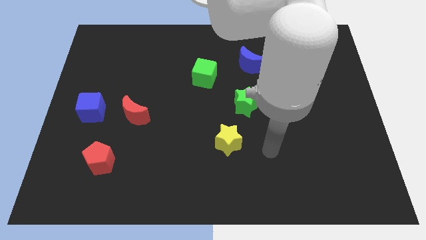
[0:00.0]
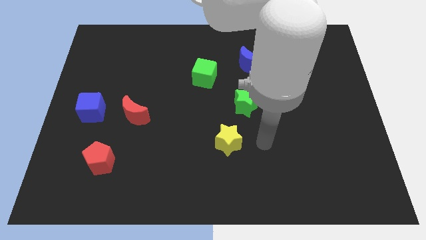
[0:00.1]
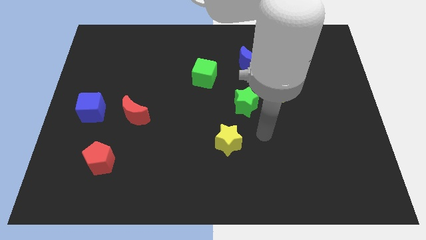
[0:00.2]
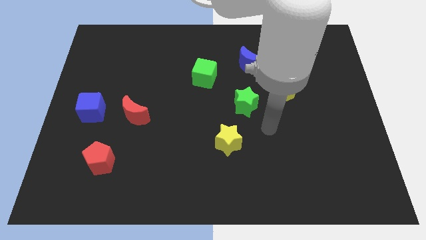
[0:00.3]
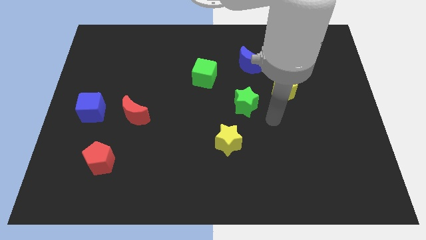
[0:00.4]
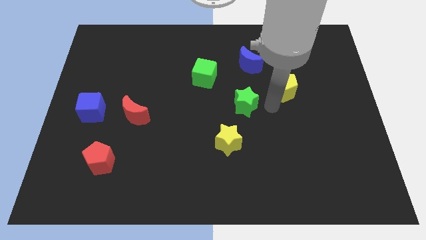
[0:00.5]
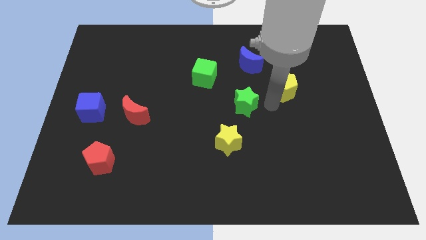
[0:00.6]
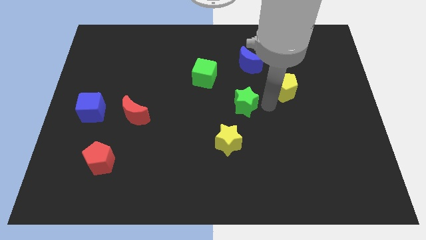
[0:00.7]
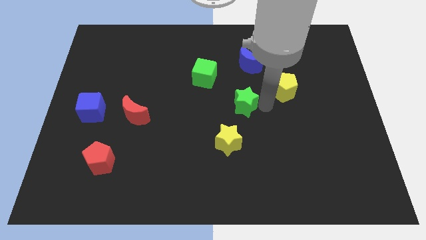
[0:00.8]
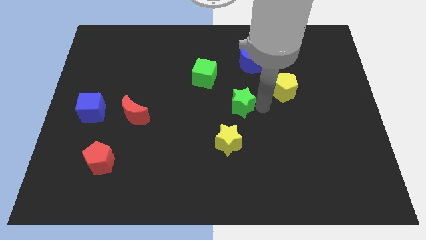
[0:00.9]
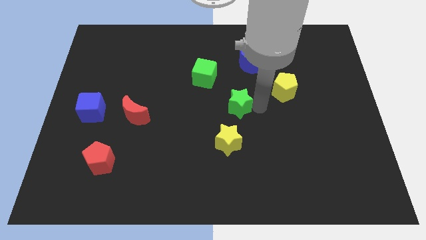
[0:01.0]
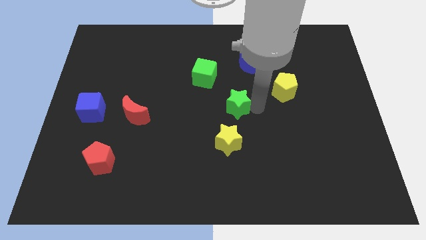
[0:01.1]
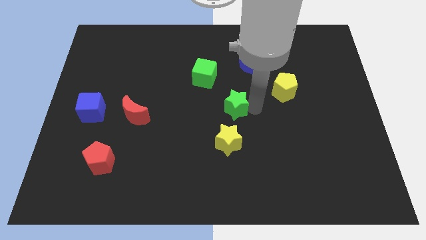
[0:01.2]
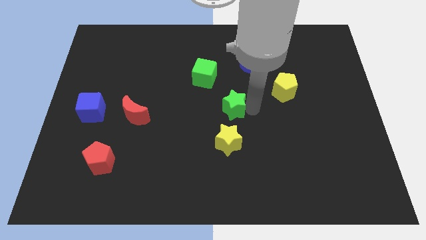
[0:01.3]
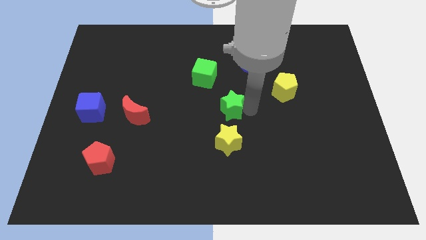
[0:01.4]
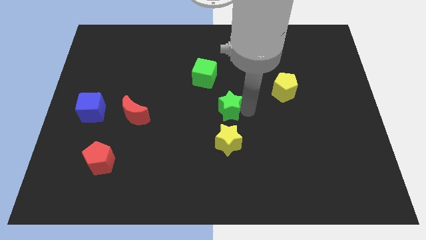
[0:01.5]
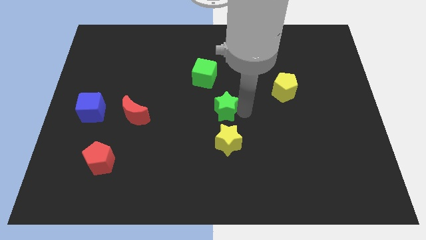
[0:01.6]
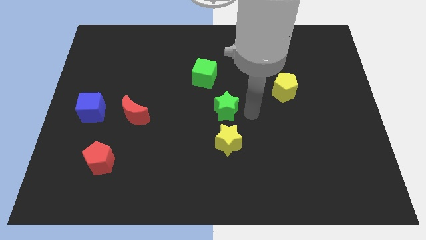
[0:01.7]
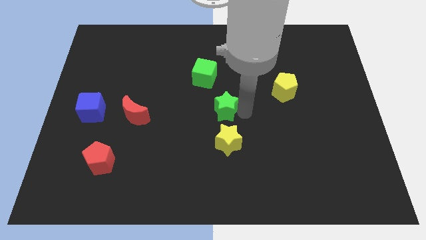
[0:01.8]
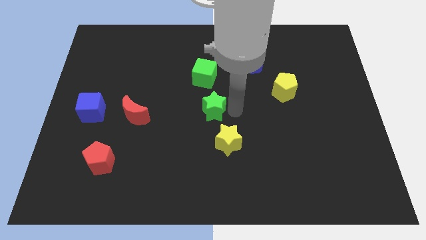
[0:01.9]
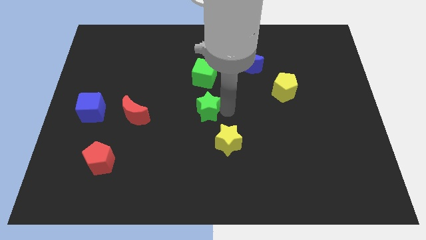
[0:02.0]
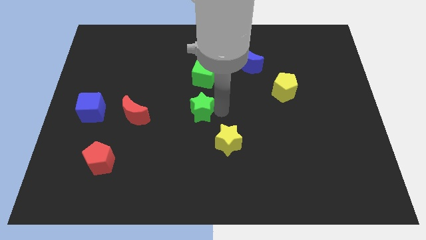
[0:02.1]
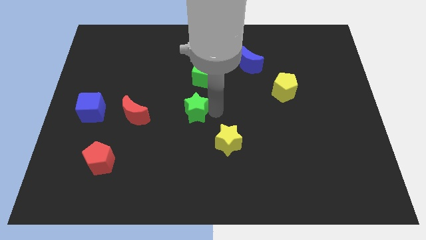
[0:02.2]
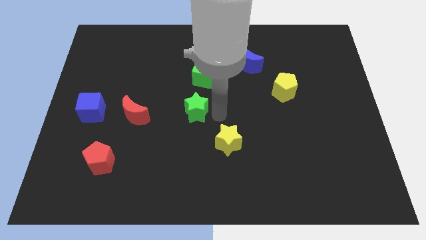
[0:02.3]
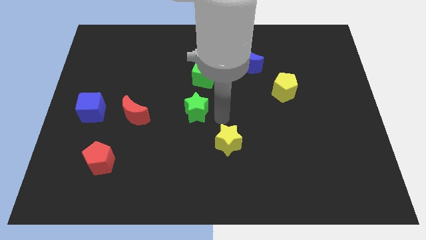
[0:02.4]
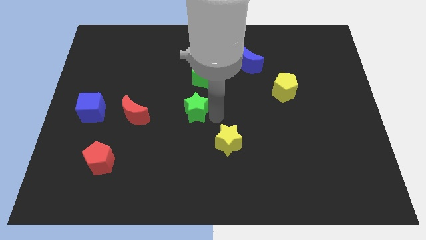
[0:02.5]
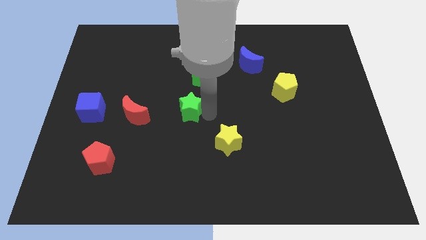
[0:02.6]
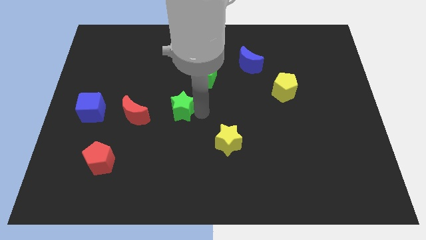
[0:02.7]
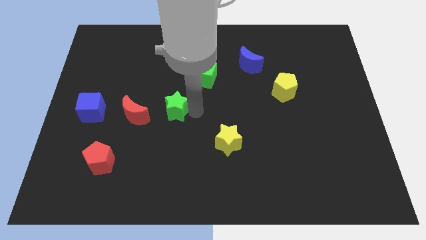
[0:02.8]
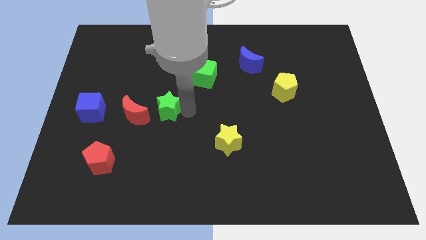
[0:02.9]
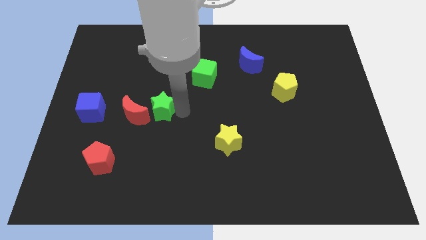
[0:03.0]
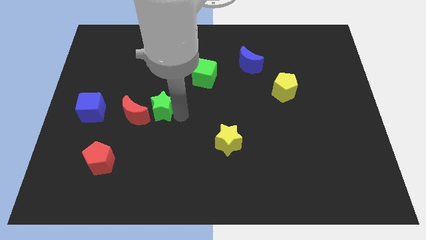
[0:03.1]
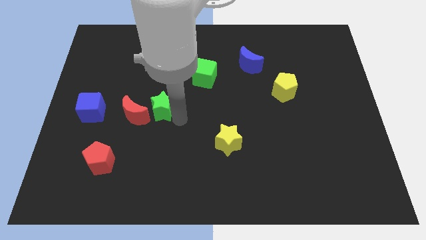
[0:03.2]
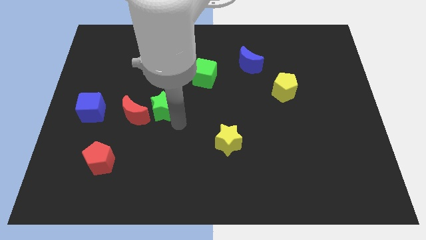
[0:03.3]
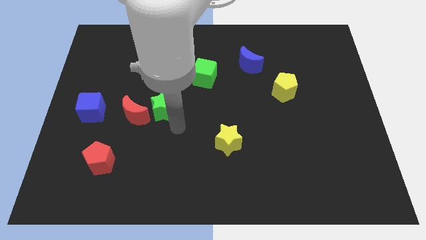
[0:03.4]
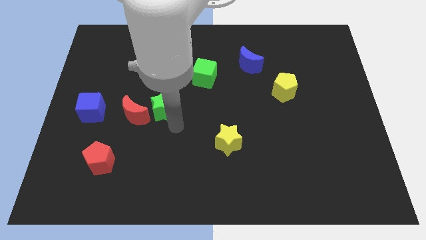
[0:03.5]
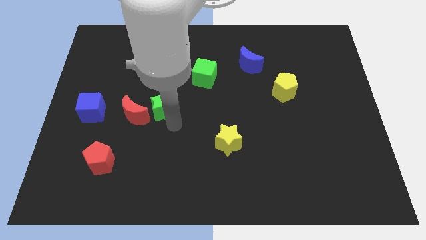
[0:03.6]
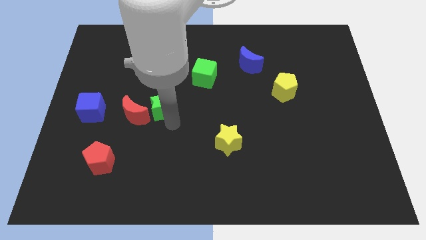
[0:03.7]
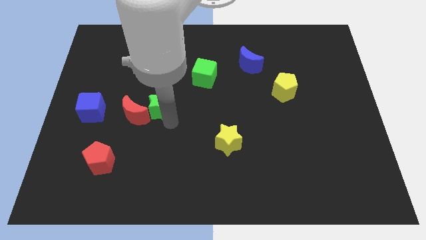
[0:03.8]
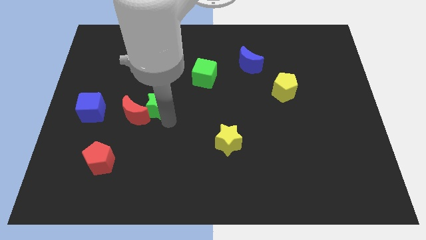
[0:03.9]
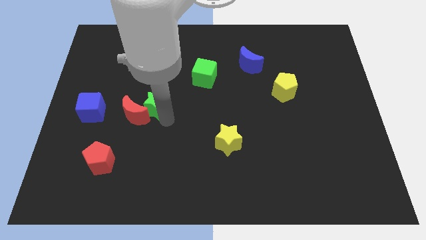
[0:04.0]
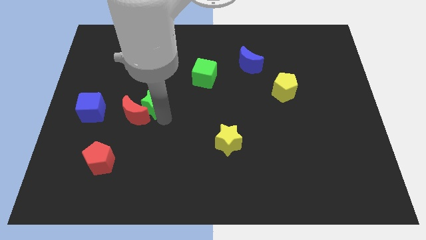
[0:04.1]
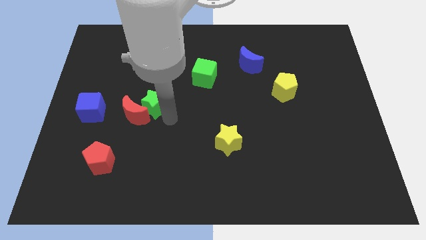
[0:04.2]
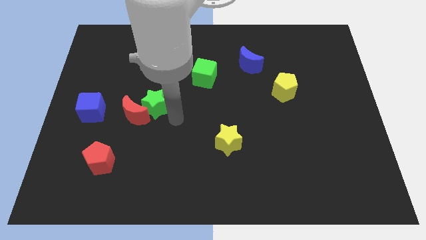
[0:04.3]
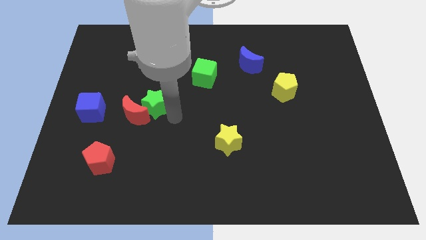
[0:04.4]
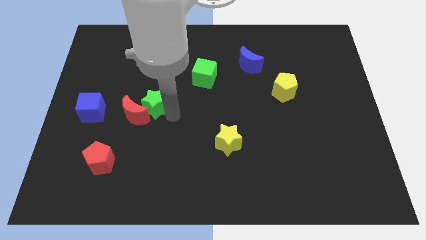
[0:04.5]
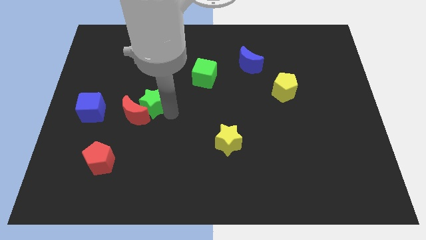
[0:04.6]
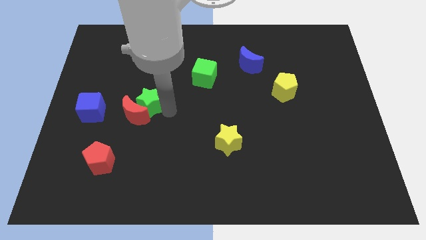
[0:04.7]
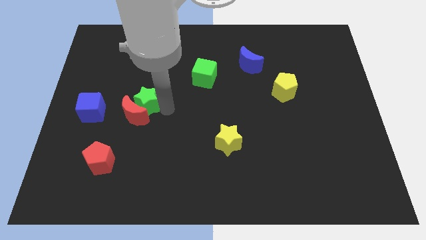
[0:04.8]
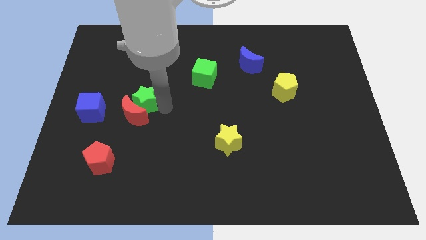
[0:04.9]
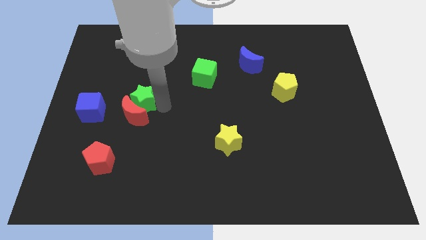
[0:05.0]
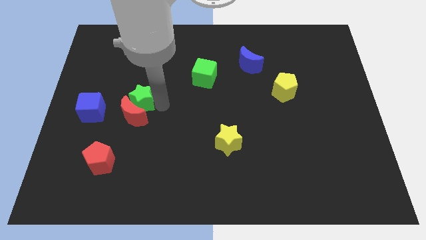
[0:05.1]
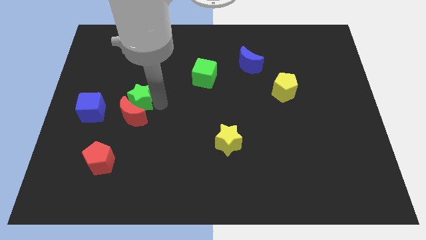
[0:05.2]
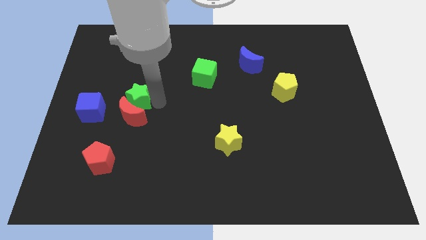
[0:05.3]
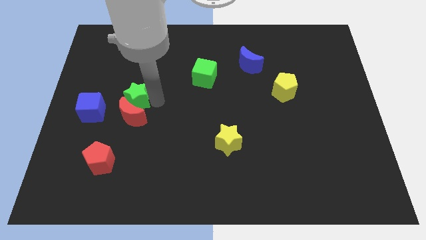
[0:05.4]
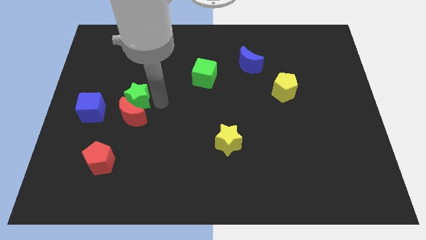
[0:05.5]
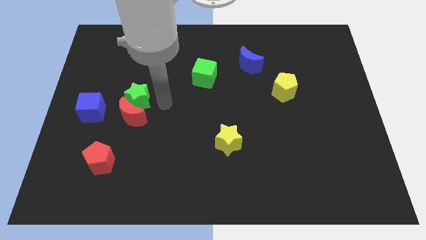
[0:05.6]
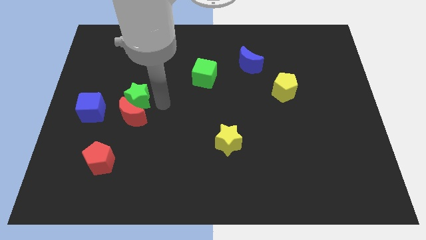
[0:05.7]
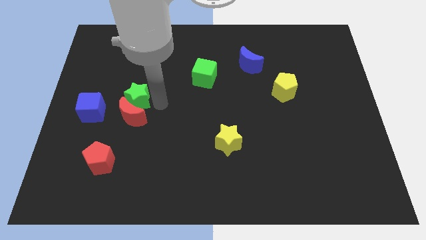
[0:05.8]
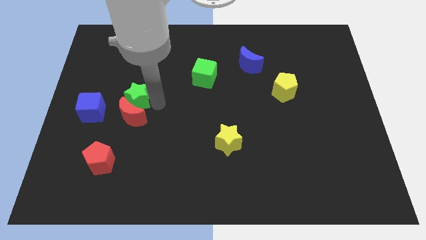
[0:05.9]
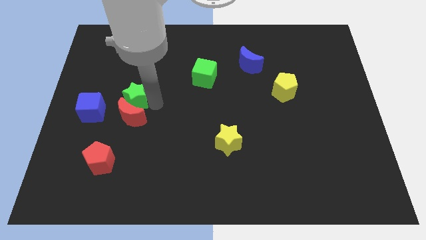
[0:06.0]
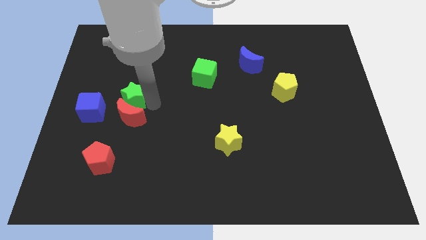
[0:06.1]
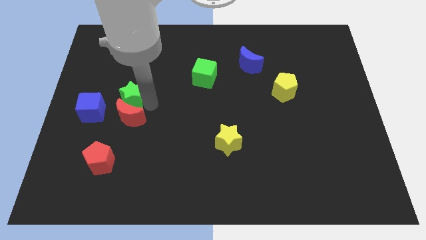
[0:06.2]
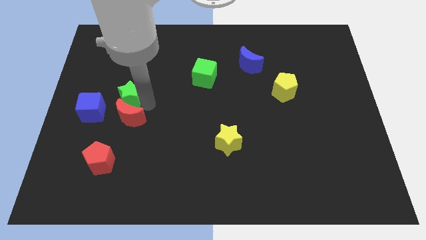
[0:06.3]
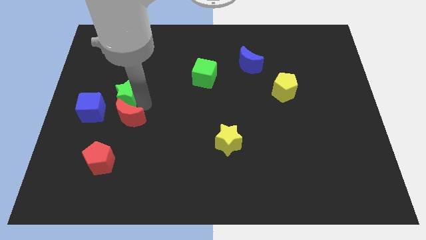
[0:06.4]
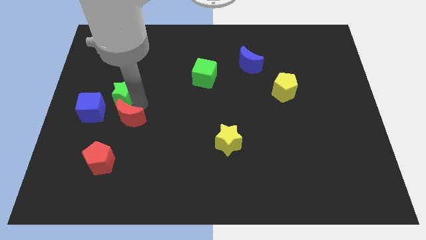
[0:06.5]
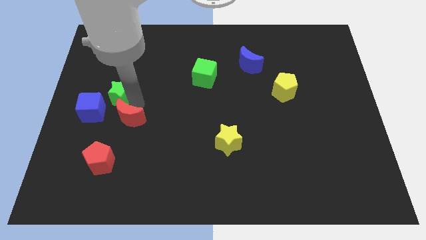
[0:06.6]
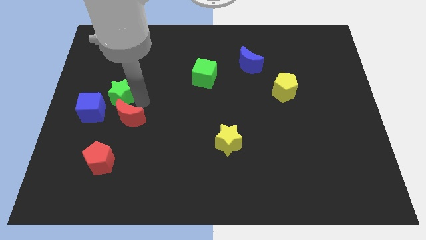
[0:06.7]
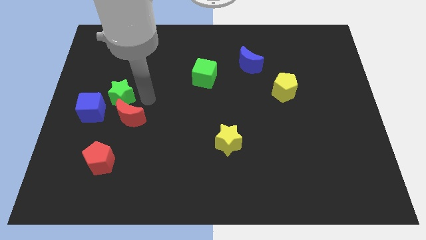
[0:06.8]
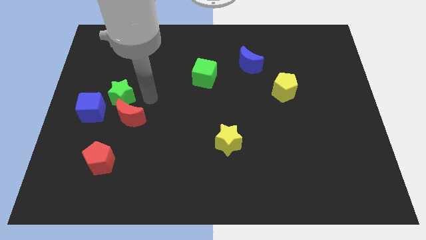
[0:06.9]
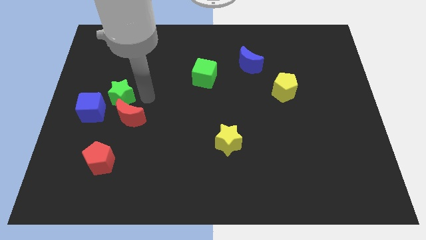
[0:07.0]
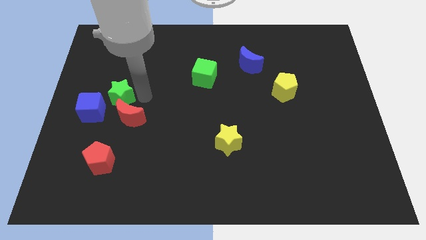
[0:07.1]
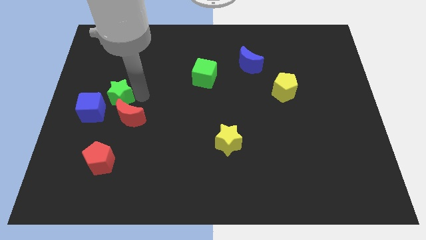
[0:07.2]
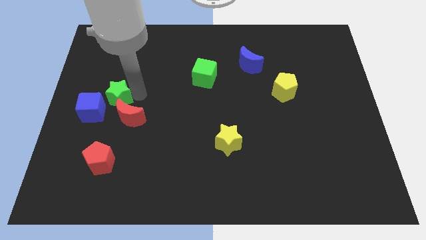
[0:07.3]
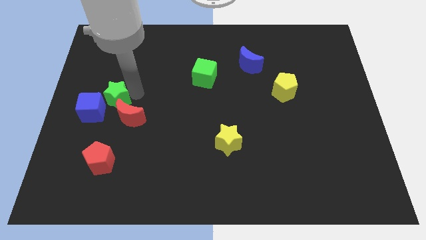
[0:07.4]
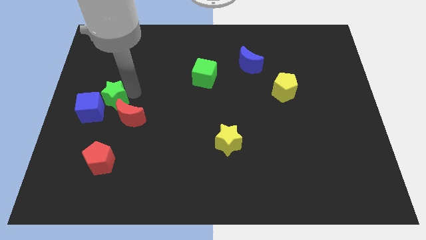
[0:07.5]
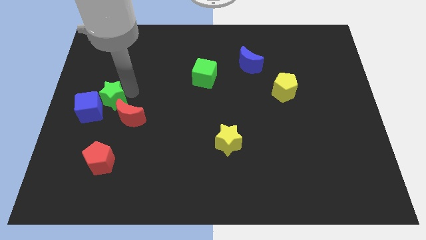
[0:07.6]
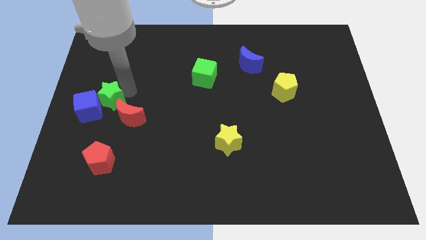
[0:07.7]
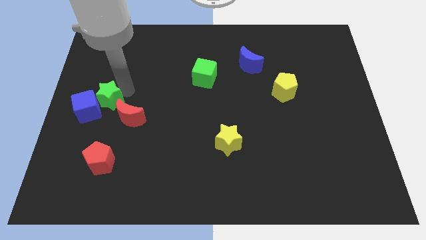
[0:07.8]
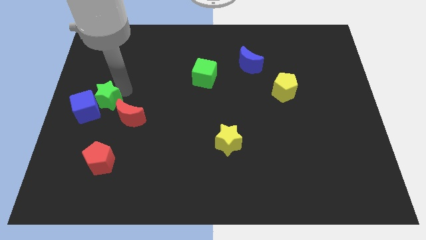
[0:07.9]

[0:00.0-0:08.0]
push the green star to the left side of the board

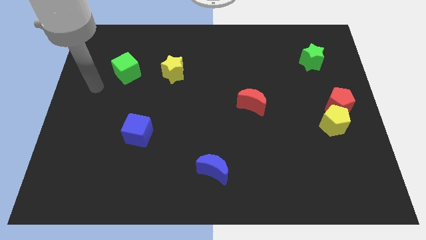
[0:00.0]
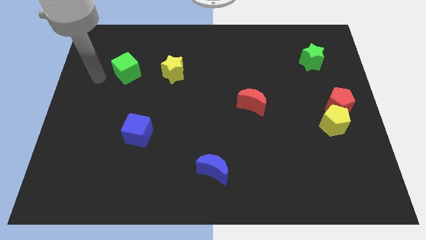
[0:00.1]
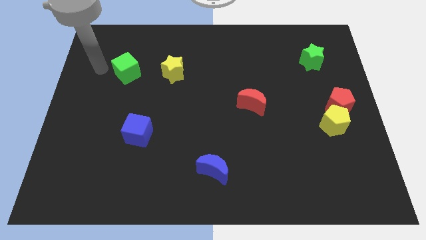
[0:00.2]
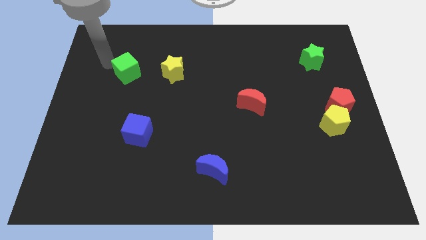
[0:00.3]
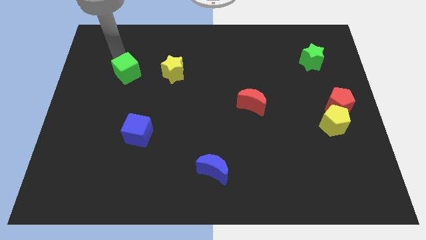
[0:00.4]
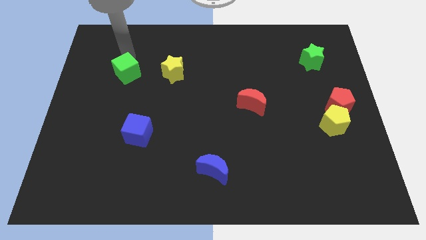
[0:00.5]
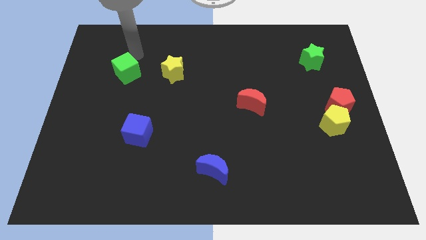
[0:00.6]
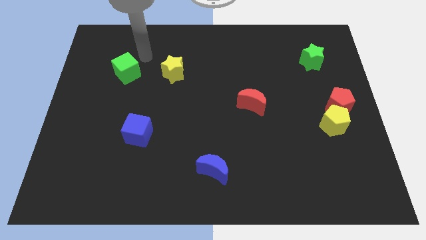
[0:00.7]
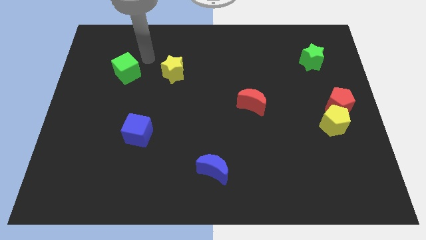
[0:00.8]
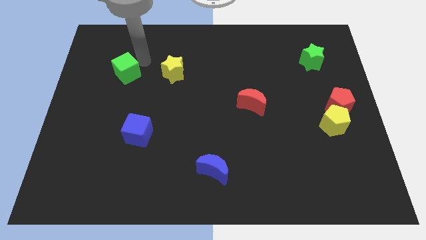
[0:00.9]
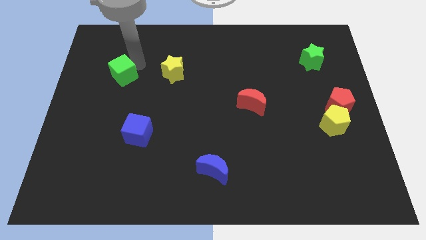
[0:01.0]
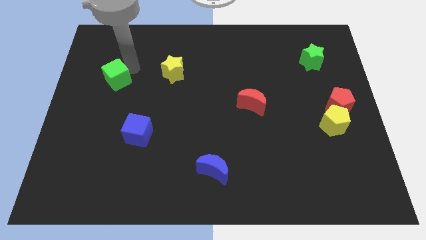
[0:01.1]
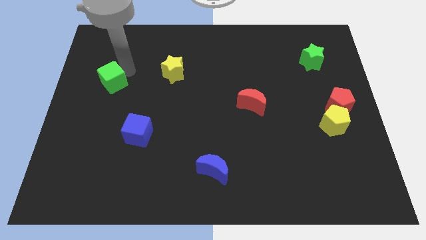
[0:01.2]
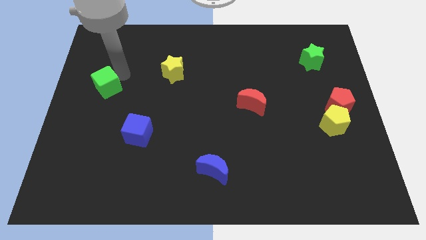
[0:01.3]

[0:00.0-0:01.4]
move the green cube to the left side of the board
